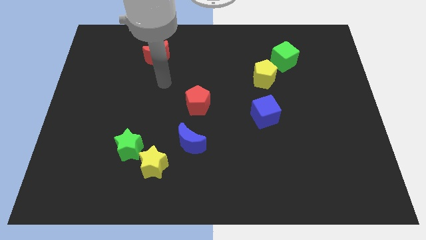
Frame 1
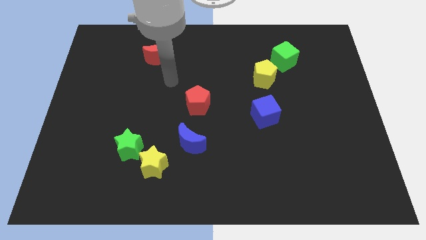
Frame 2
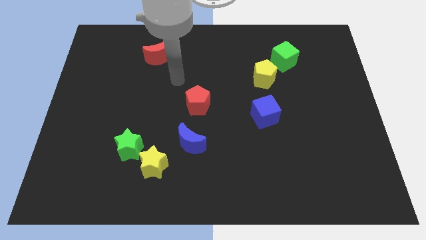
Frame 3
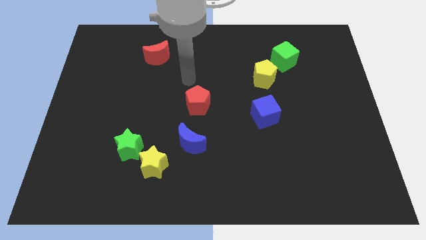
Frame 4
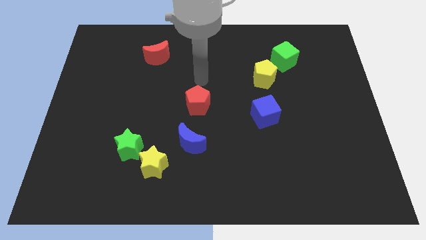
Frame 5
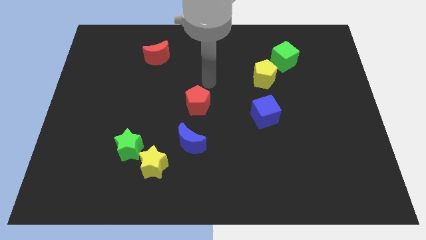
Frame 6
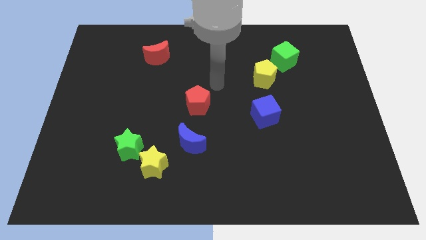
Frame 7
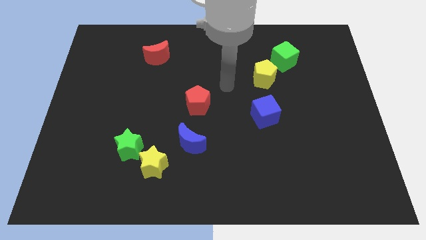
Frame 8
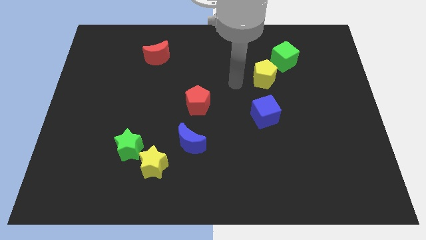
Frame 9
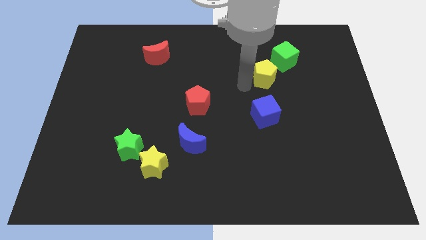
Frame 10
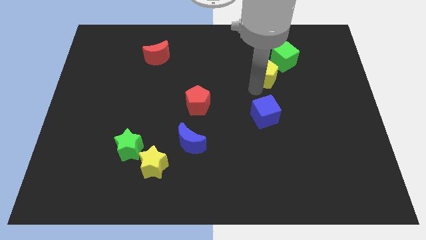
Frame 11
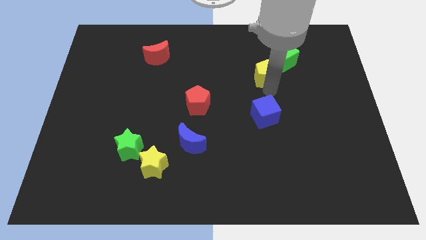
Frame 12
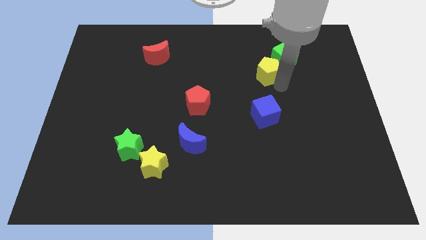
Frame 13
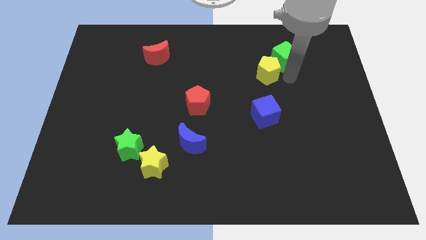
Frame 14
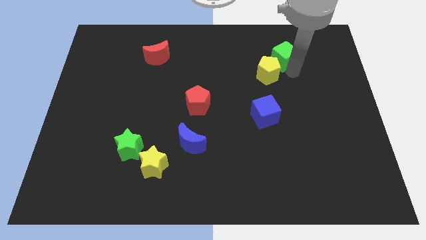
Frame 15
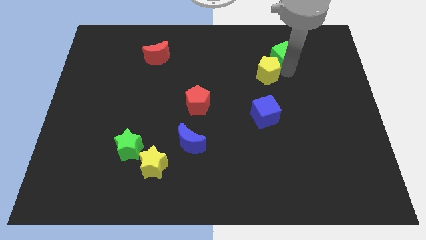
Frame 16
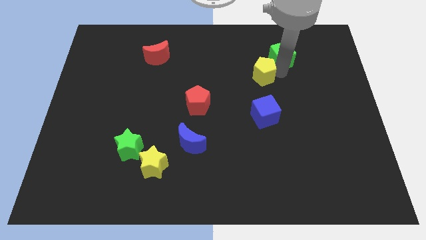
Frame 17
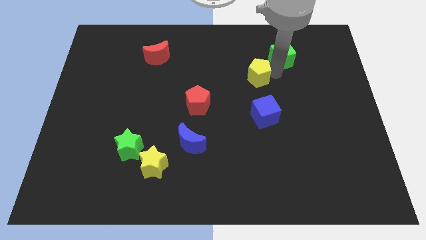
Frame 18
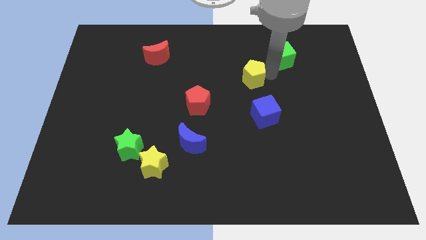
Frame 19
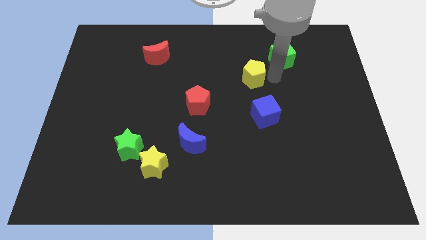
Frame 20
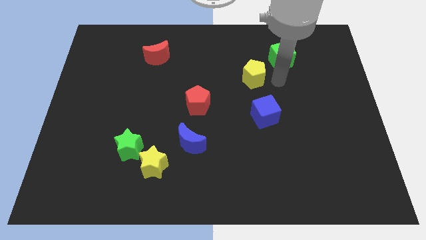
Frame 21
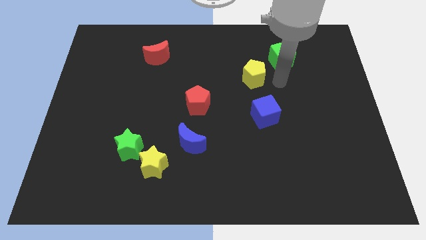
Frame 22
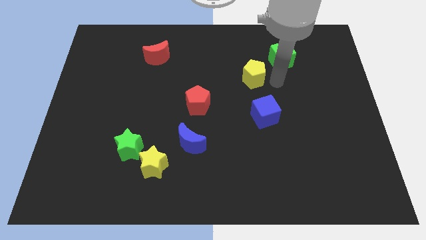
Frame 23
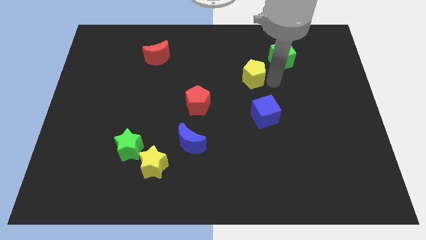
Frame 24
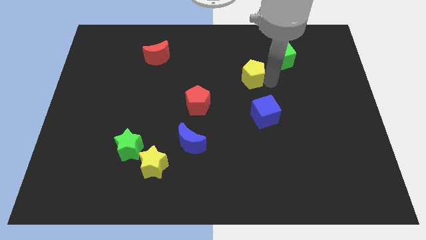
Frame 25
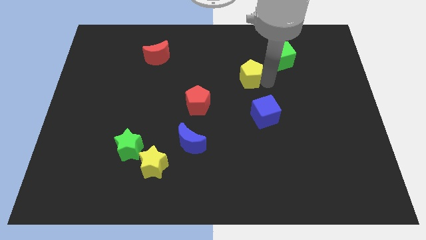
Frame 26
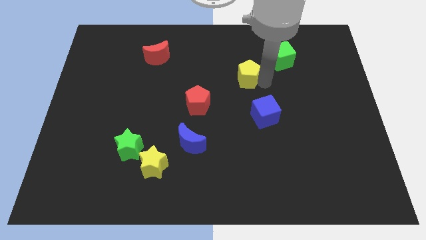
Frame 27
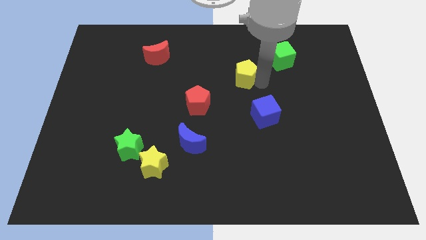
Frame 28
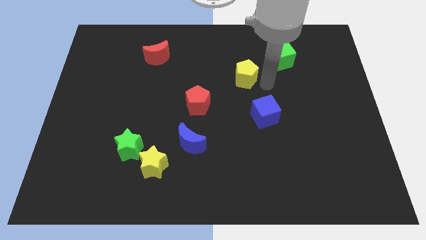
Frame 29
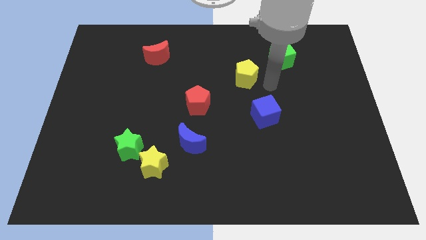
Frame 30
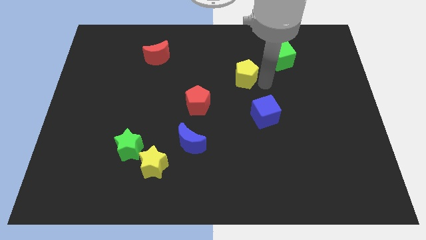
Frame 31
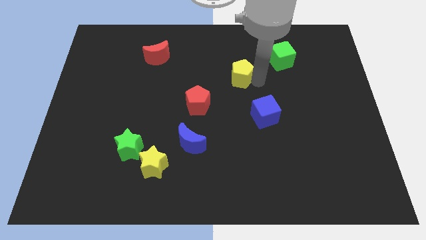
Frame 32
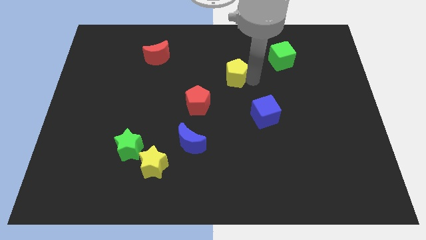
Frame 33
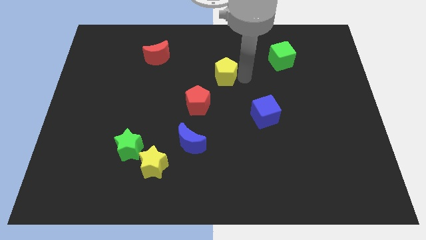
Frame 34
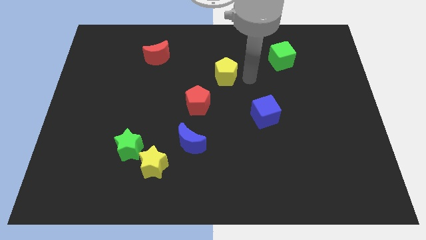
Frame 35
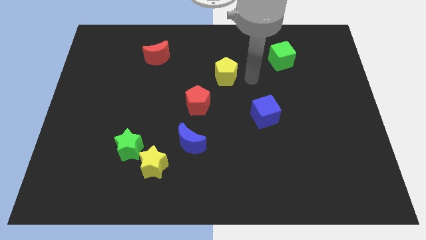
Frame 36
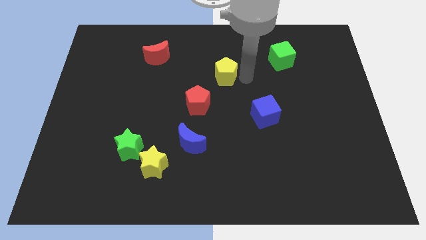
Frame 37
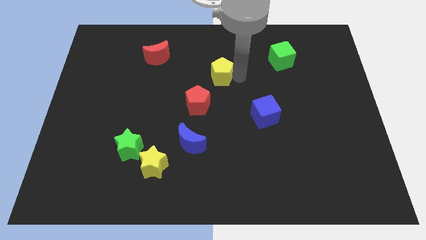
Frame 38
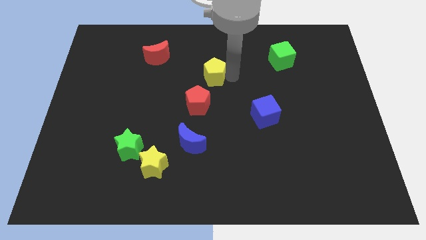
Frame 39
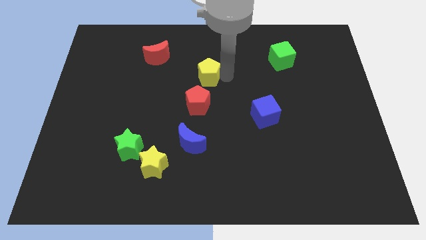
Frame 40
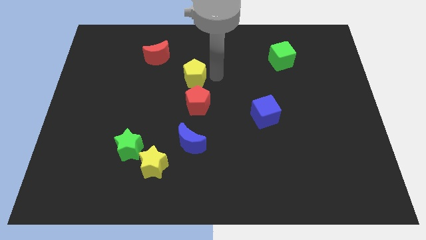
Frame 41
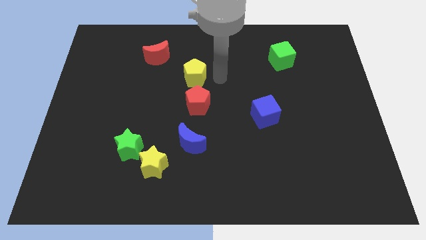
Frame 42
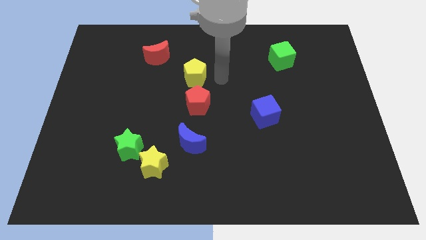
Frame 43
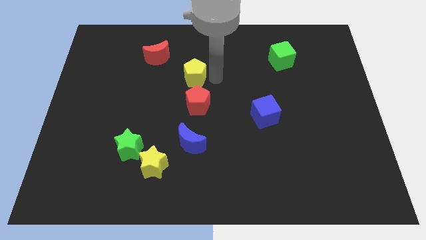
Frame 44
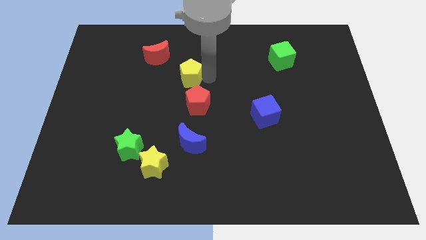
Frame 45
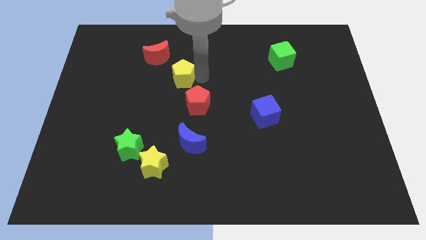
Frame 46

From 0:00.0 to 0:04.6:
push the yellow pentagon to the left

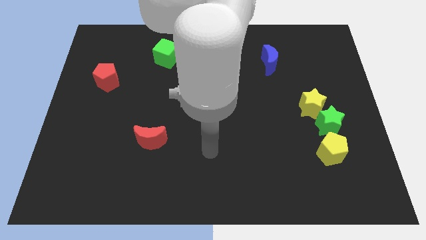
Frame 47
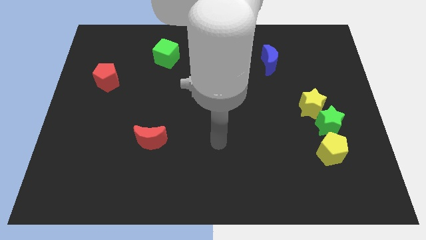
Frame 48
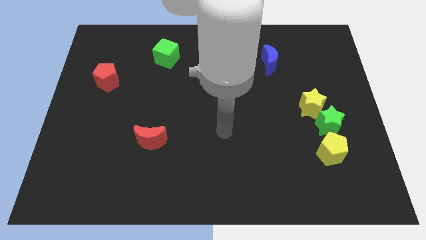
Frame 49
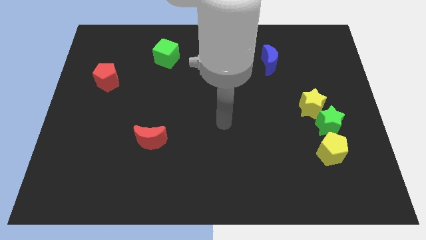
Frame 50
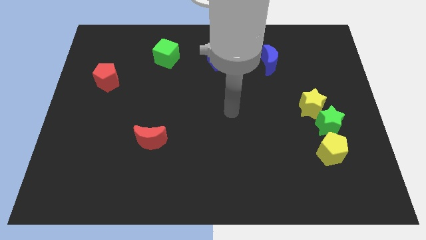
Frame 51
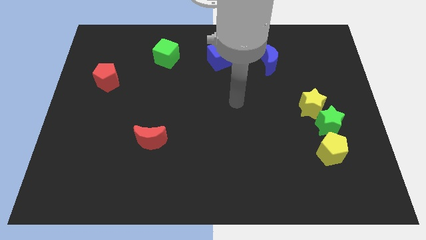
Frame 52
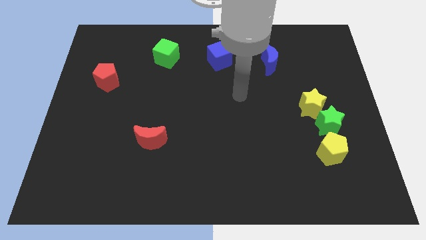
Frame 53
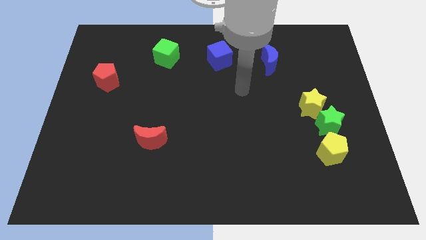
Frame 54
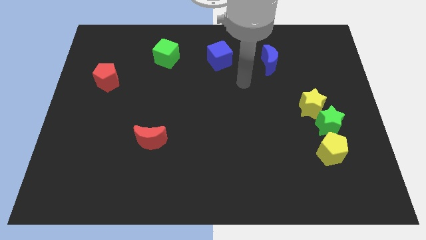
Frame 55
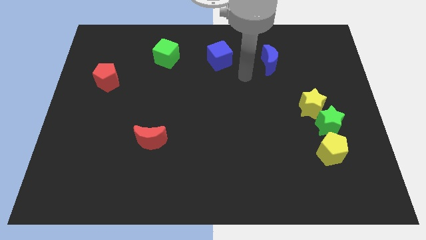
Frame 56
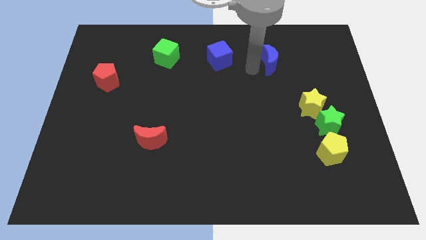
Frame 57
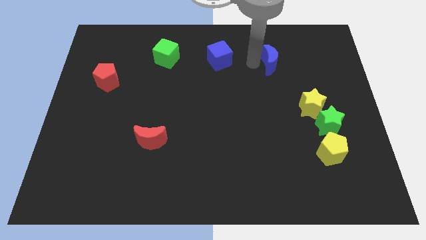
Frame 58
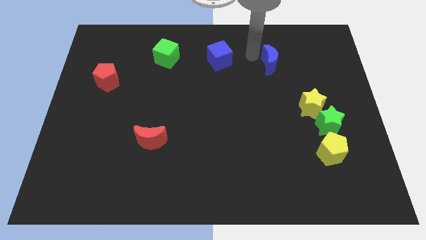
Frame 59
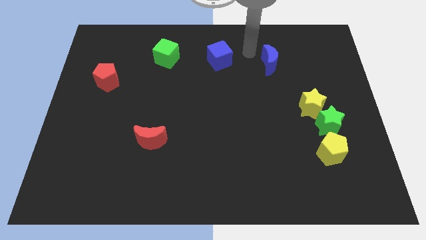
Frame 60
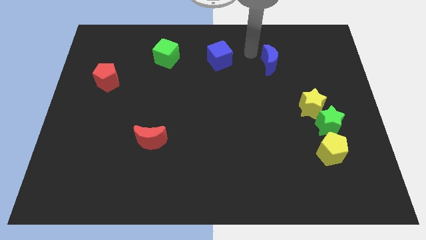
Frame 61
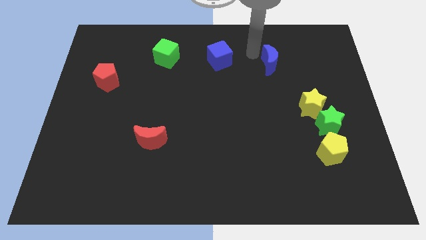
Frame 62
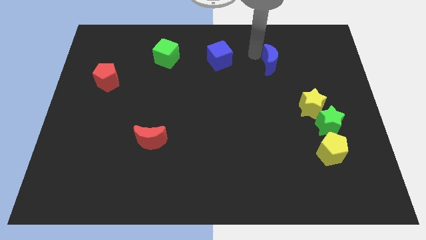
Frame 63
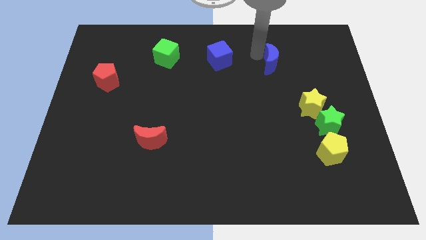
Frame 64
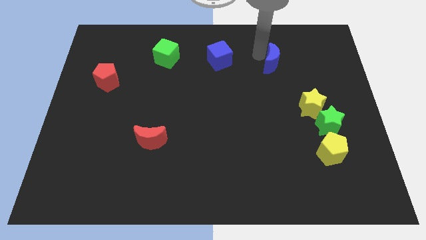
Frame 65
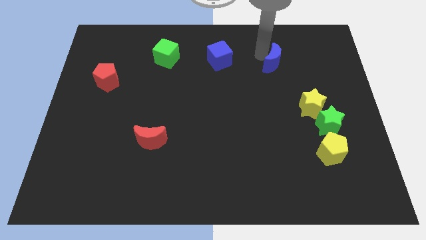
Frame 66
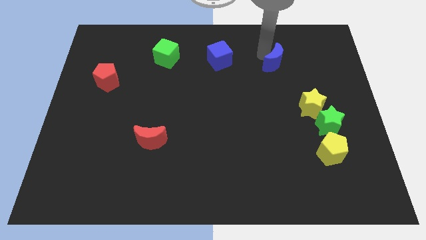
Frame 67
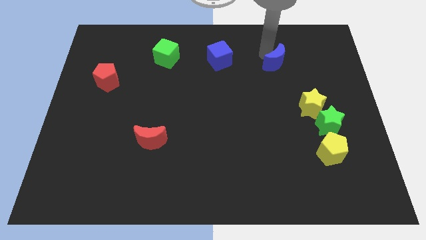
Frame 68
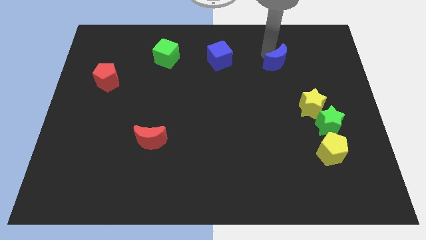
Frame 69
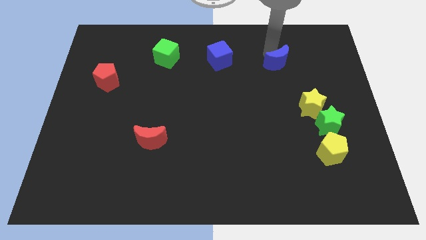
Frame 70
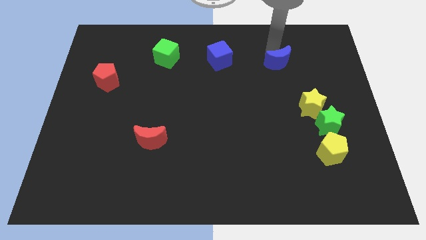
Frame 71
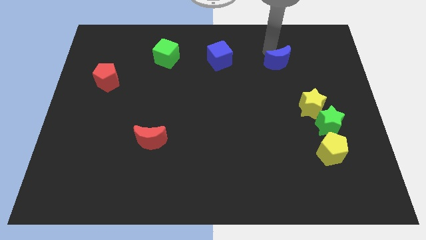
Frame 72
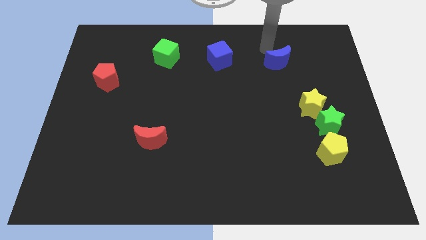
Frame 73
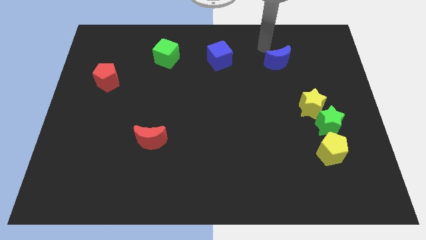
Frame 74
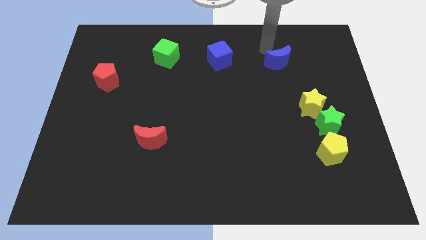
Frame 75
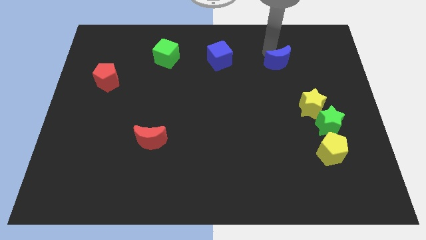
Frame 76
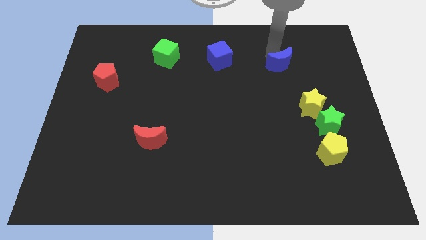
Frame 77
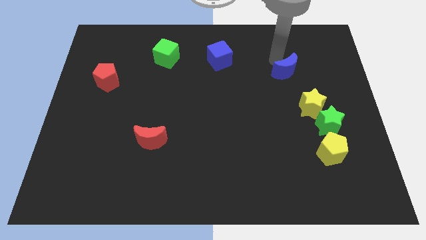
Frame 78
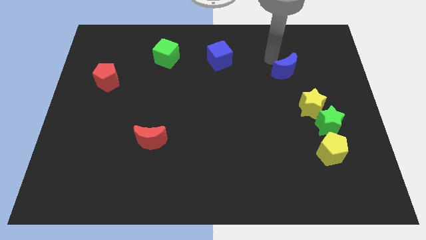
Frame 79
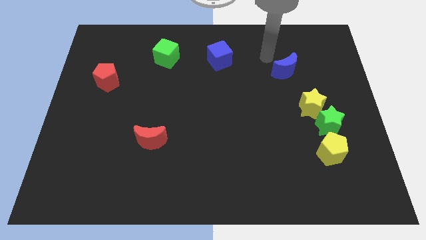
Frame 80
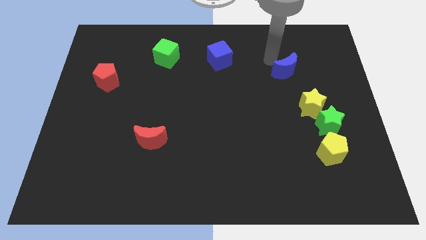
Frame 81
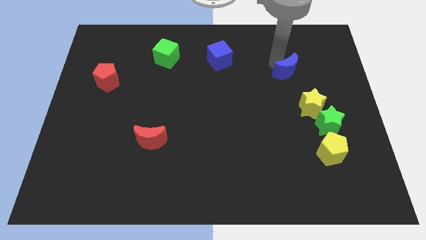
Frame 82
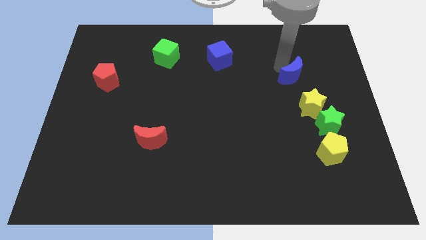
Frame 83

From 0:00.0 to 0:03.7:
move the blue moon slightly diagonally down and to the right
